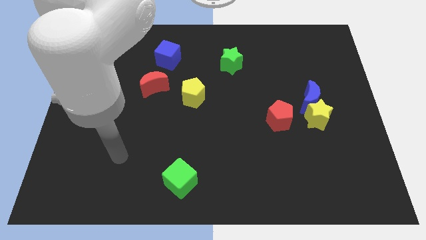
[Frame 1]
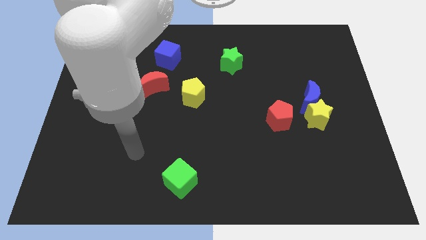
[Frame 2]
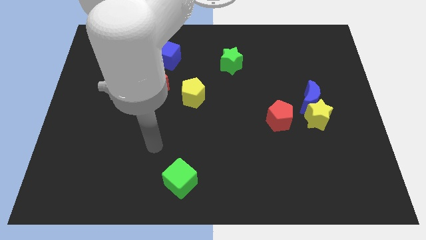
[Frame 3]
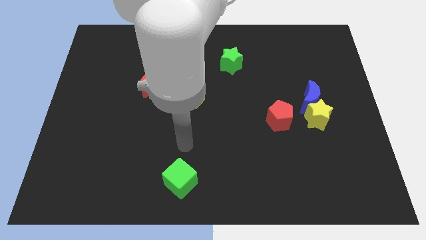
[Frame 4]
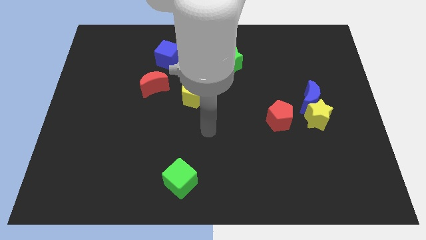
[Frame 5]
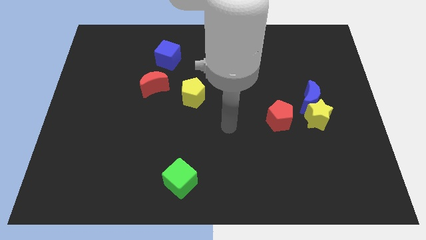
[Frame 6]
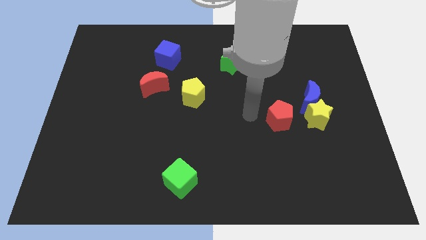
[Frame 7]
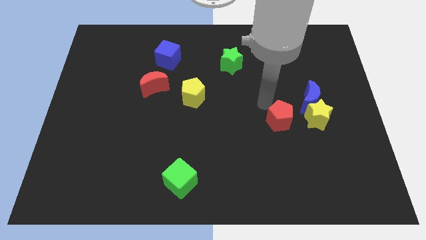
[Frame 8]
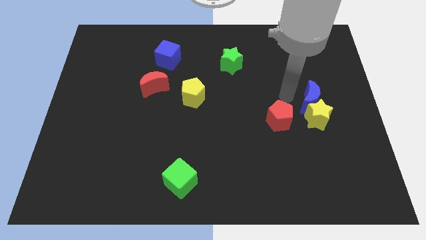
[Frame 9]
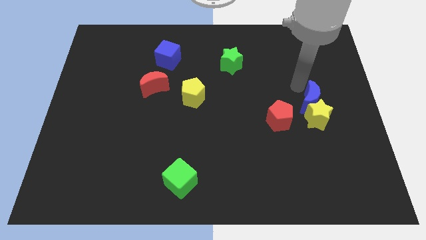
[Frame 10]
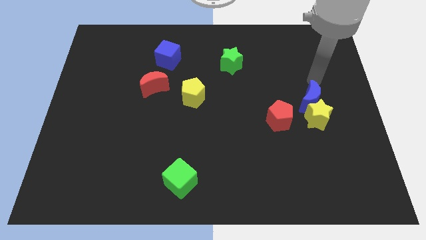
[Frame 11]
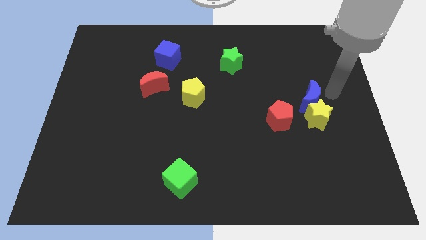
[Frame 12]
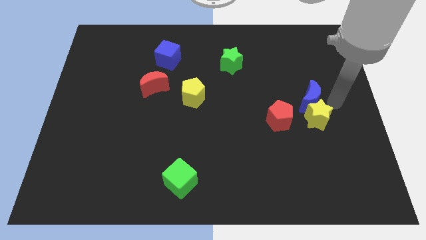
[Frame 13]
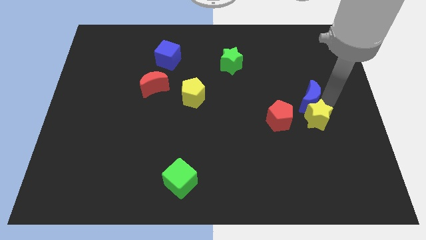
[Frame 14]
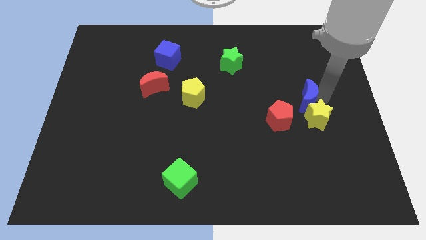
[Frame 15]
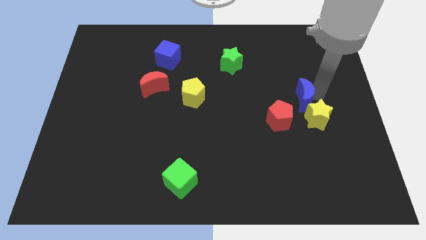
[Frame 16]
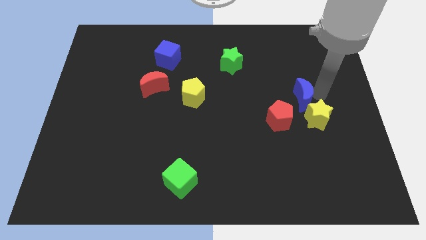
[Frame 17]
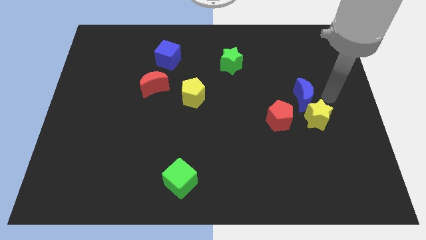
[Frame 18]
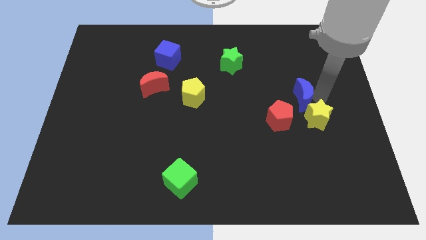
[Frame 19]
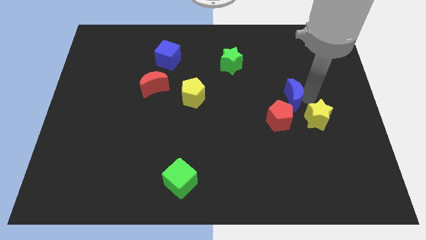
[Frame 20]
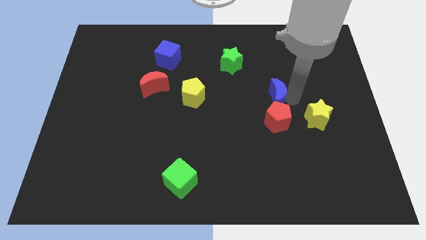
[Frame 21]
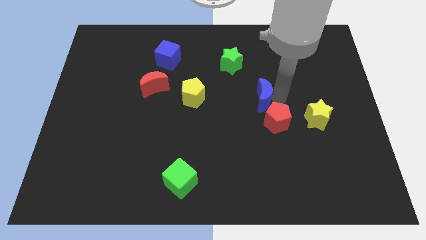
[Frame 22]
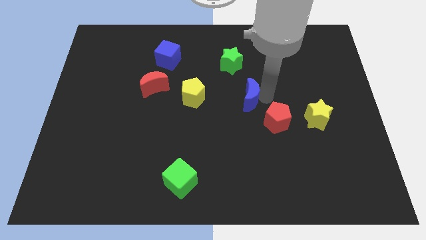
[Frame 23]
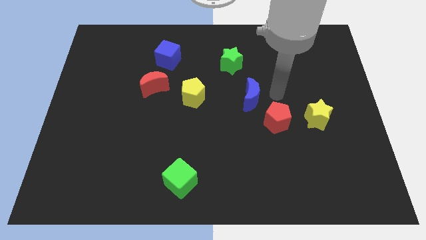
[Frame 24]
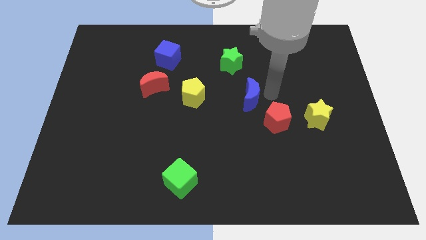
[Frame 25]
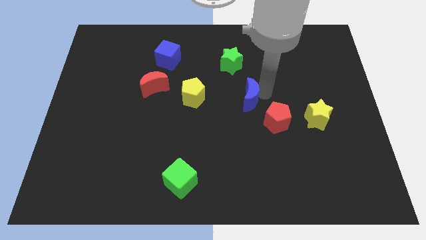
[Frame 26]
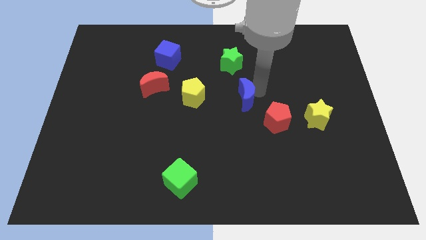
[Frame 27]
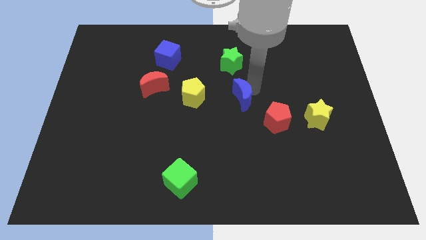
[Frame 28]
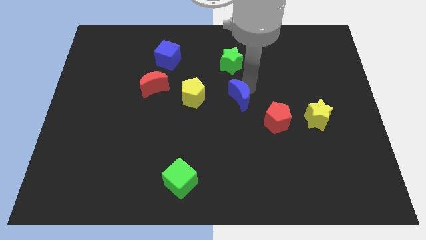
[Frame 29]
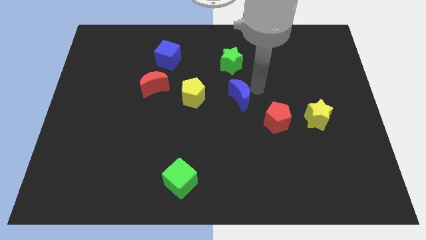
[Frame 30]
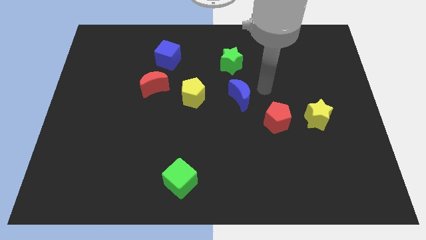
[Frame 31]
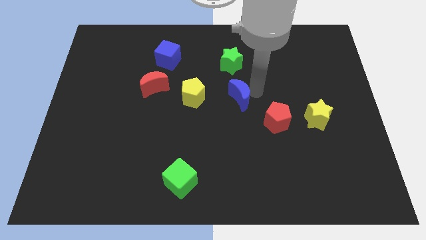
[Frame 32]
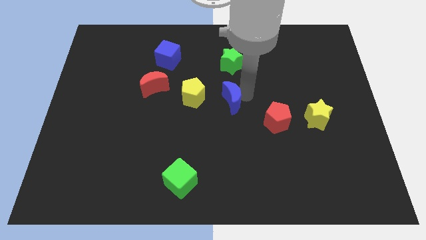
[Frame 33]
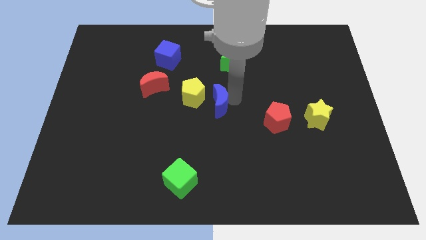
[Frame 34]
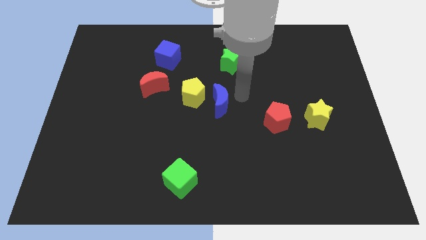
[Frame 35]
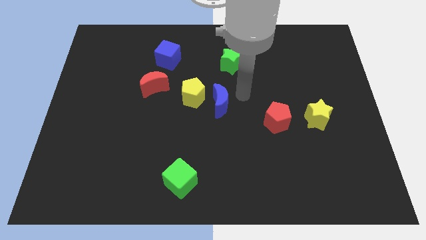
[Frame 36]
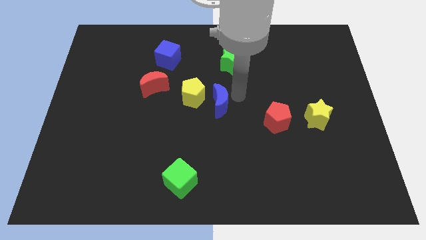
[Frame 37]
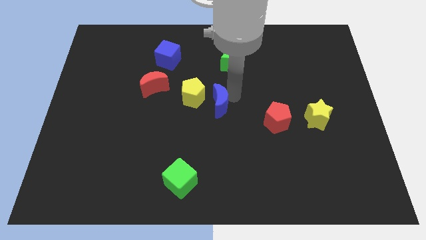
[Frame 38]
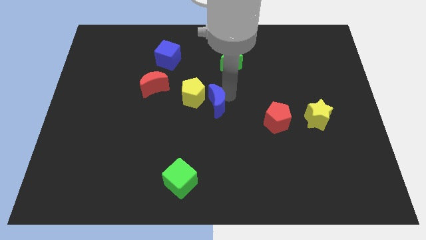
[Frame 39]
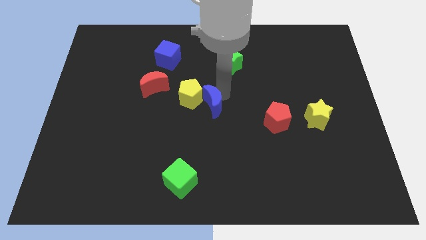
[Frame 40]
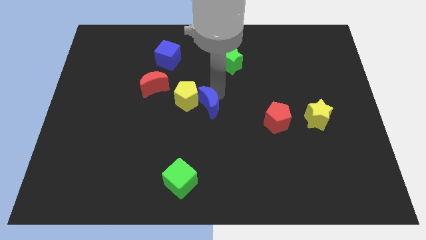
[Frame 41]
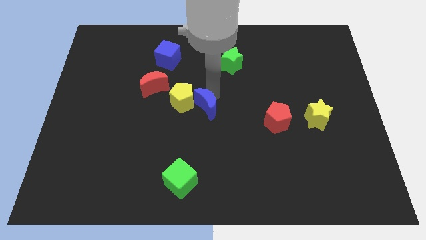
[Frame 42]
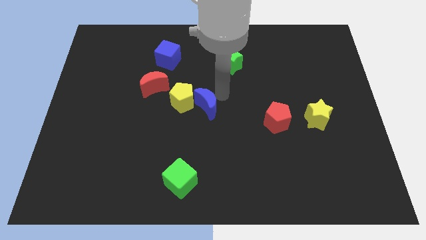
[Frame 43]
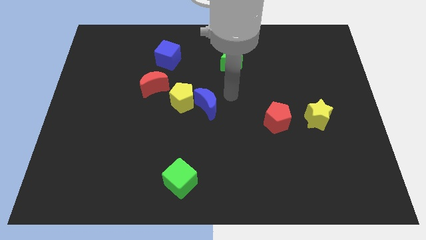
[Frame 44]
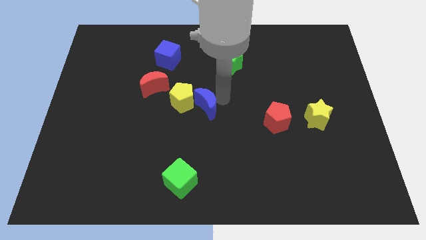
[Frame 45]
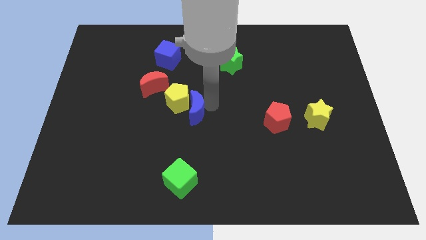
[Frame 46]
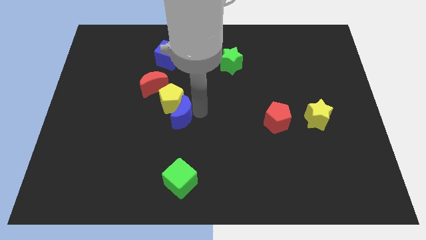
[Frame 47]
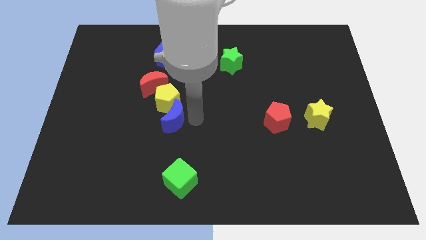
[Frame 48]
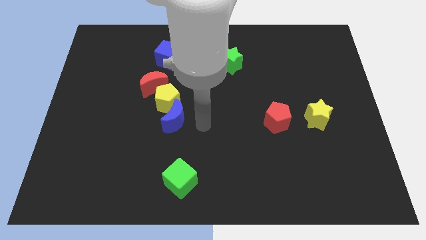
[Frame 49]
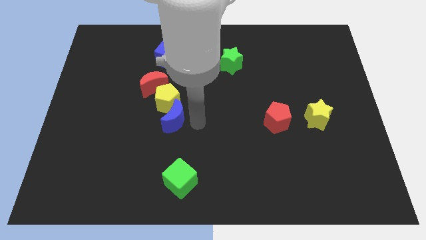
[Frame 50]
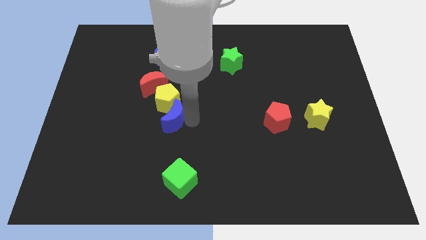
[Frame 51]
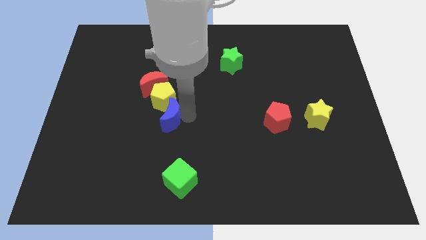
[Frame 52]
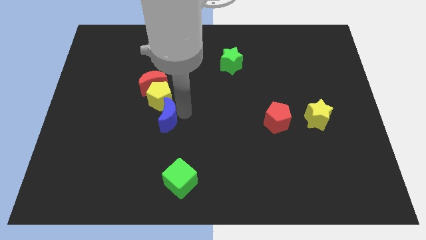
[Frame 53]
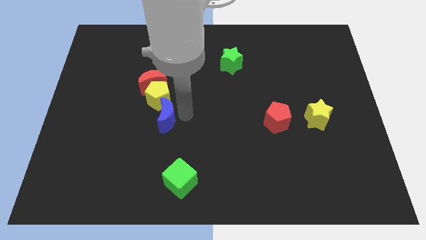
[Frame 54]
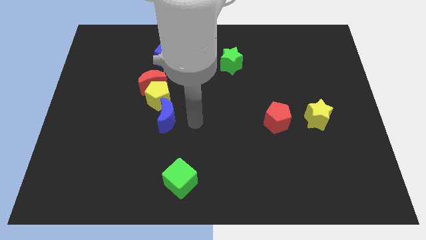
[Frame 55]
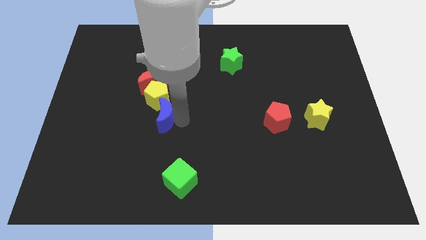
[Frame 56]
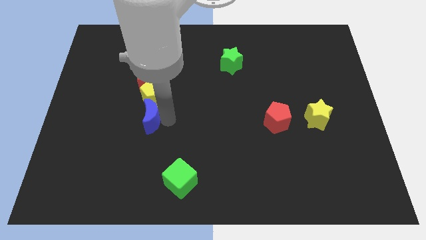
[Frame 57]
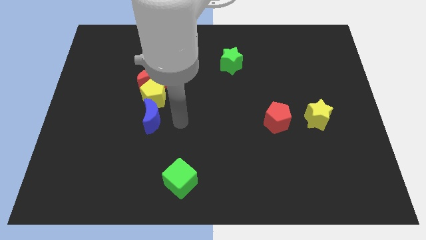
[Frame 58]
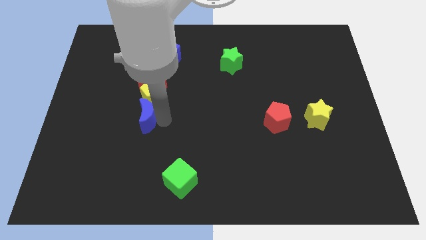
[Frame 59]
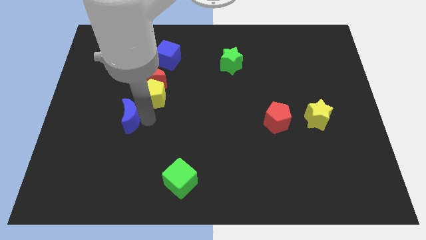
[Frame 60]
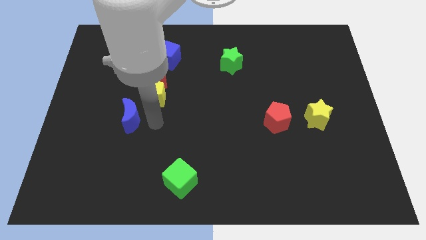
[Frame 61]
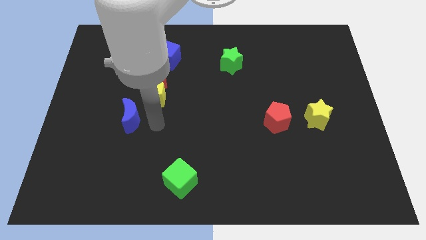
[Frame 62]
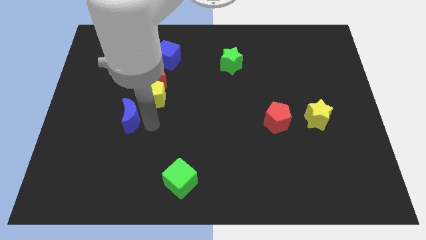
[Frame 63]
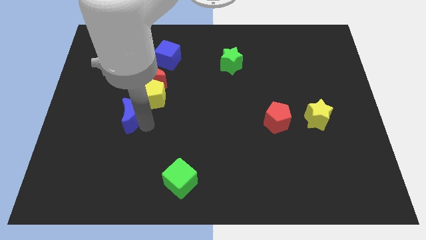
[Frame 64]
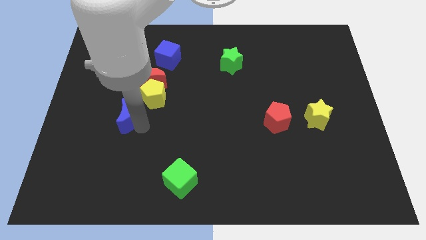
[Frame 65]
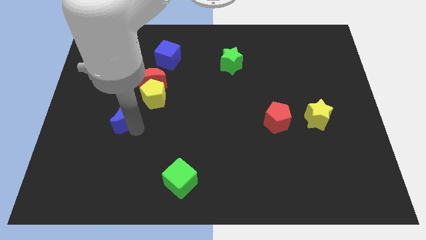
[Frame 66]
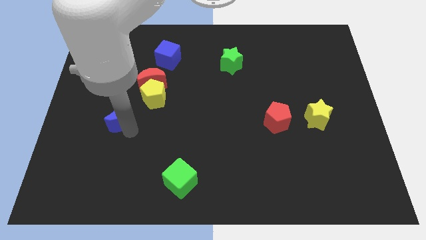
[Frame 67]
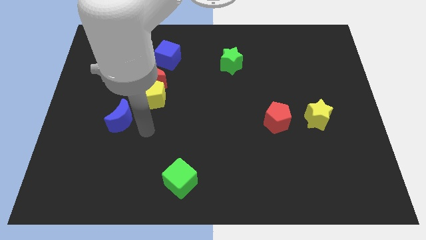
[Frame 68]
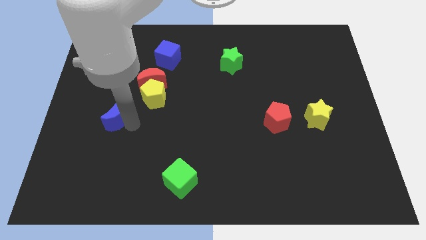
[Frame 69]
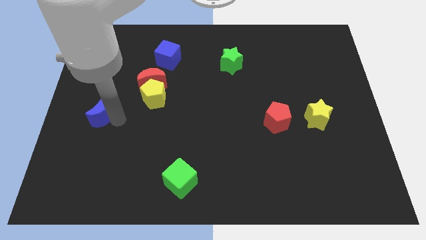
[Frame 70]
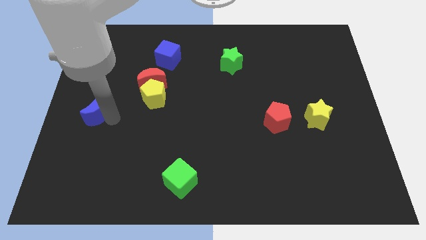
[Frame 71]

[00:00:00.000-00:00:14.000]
move the blue moon to the left side
